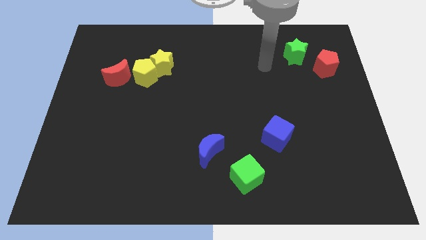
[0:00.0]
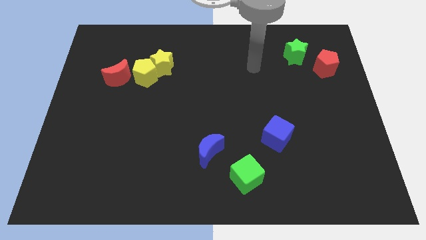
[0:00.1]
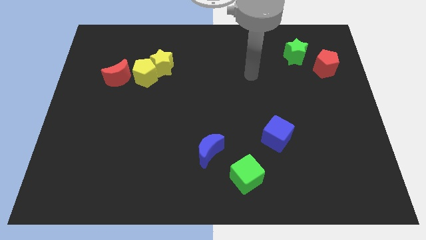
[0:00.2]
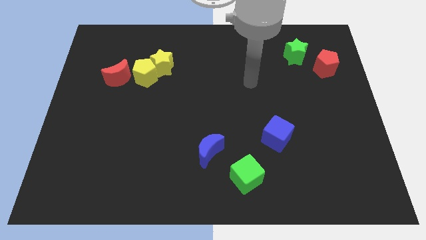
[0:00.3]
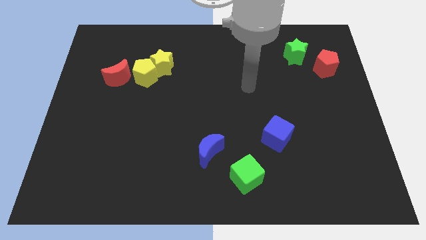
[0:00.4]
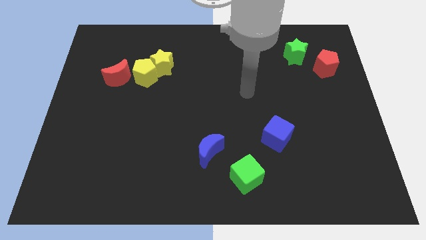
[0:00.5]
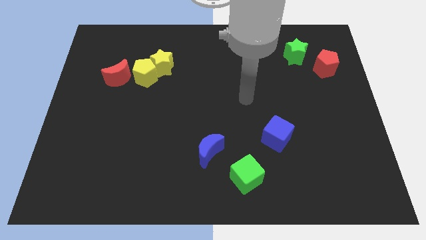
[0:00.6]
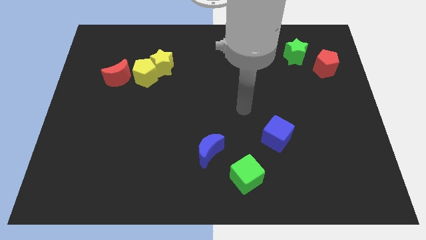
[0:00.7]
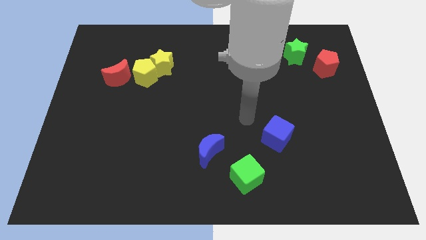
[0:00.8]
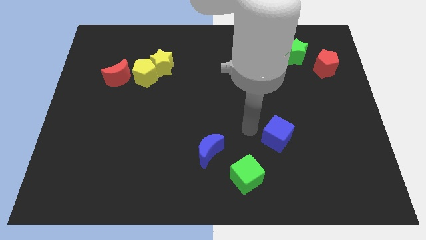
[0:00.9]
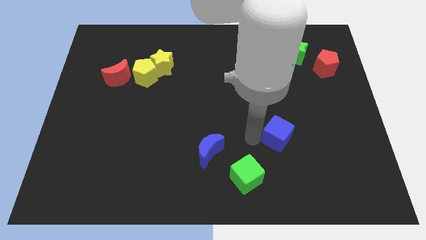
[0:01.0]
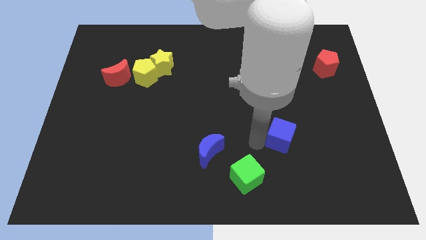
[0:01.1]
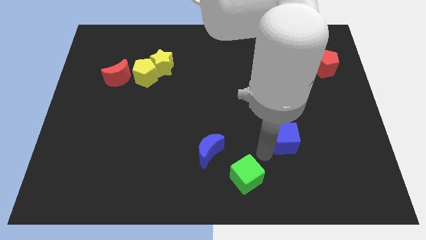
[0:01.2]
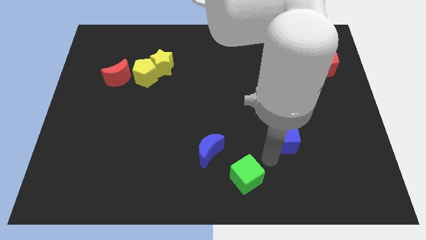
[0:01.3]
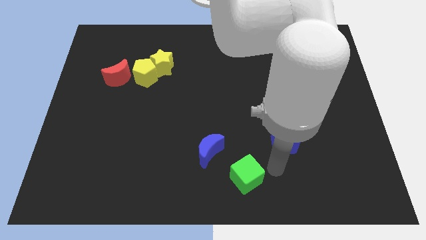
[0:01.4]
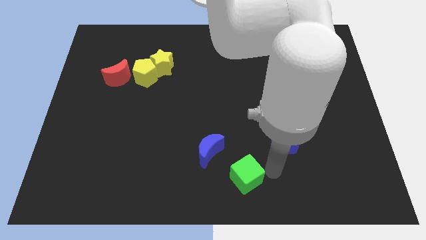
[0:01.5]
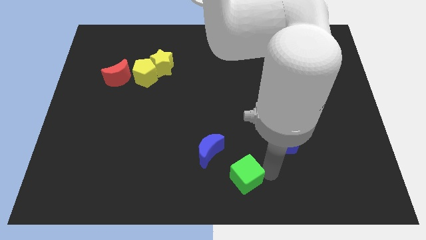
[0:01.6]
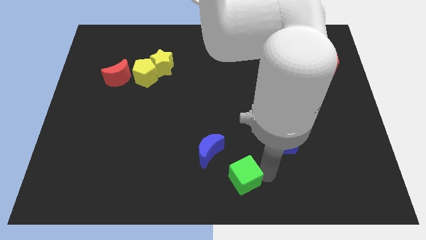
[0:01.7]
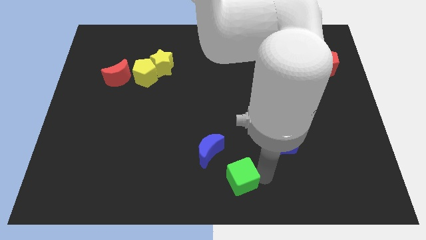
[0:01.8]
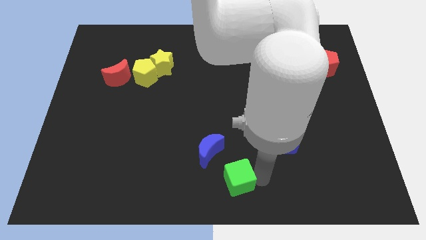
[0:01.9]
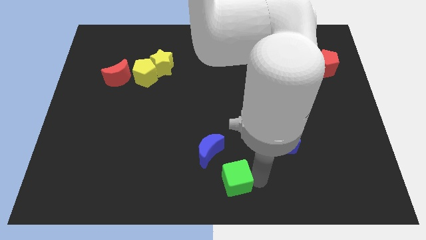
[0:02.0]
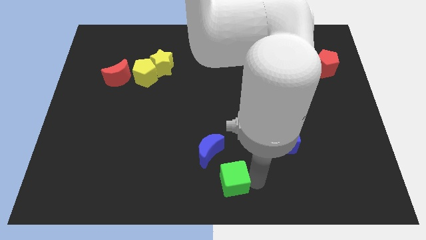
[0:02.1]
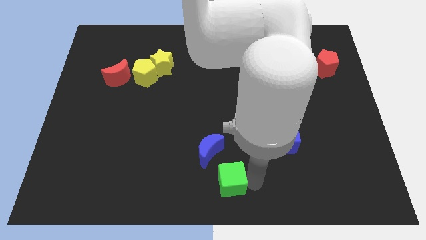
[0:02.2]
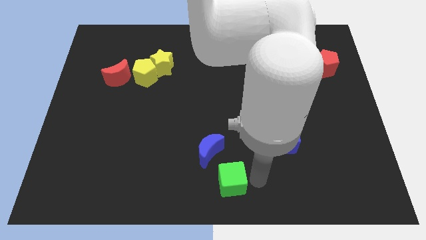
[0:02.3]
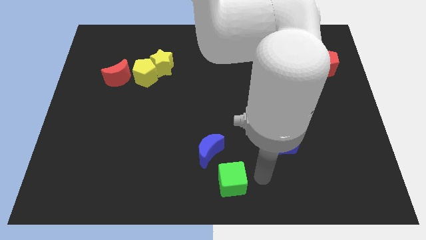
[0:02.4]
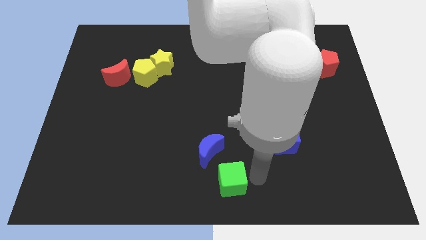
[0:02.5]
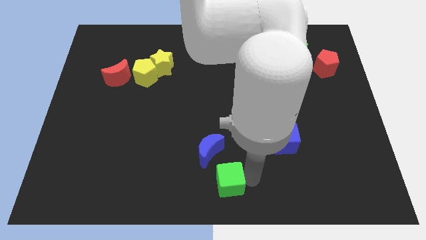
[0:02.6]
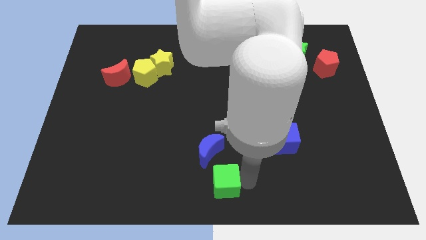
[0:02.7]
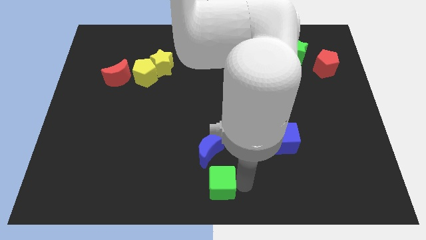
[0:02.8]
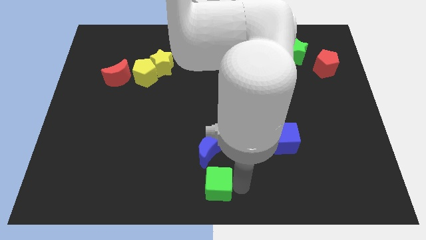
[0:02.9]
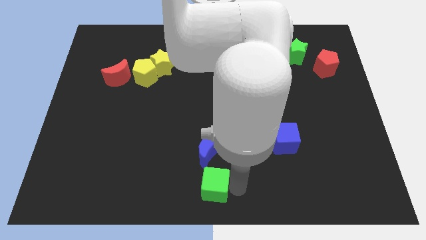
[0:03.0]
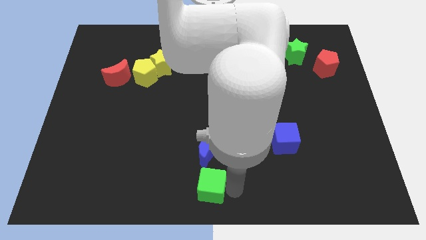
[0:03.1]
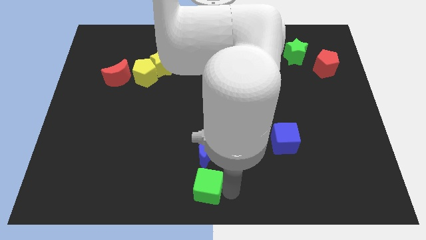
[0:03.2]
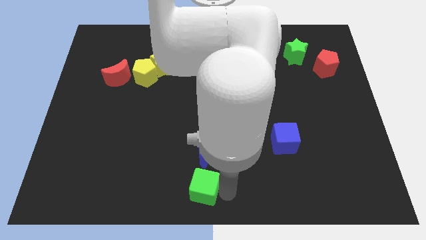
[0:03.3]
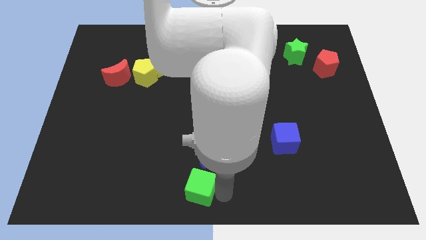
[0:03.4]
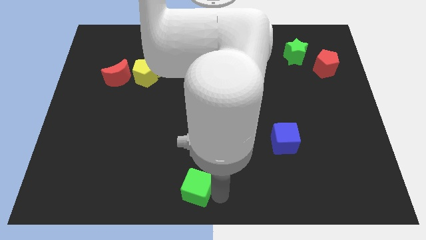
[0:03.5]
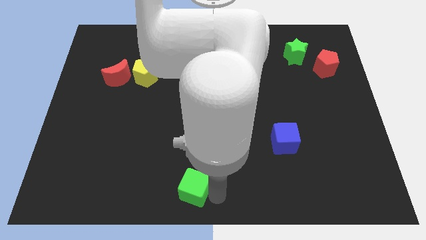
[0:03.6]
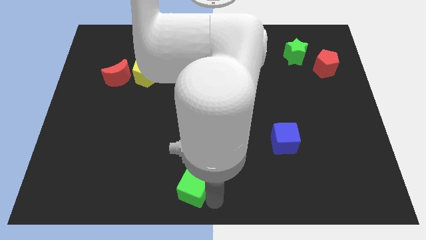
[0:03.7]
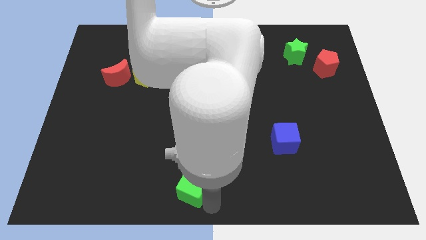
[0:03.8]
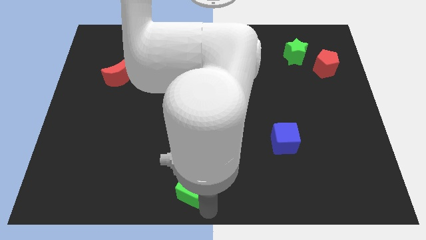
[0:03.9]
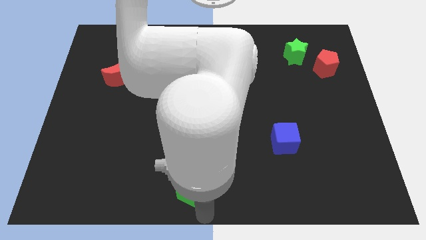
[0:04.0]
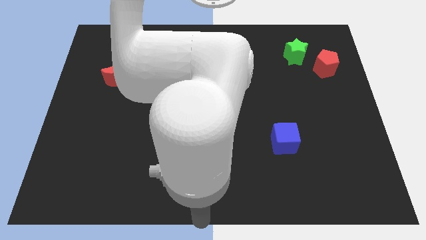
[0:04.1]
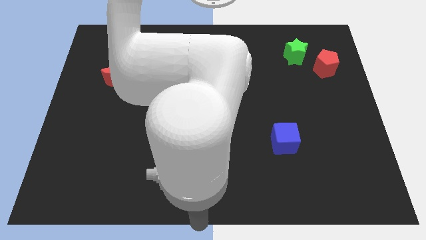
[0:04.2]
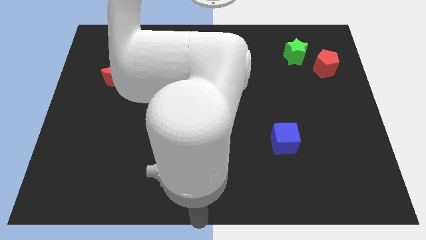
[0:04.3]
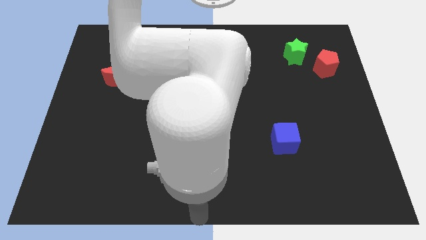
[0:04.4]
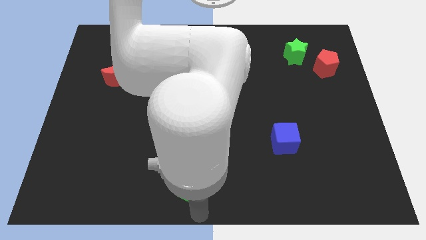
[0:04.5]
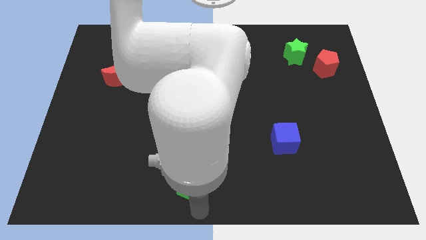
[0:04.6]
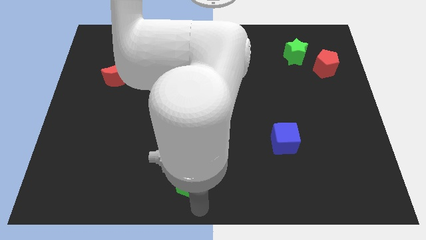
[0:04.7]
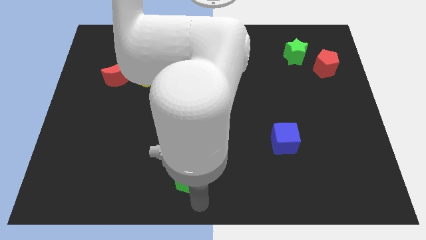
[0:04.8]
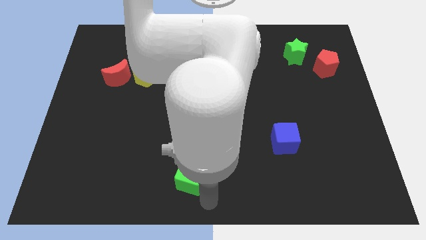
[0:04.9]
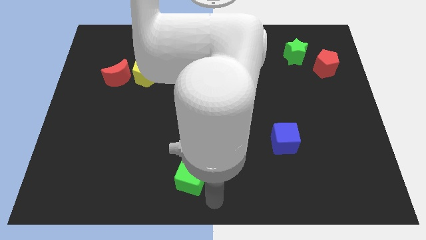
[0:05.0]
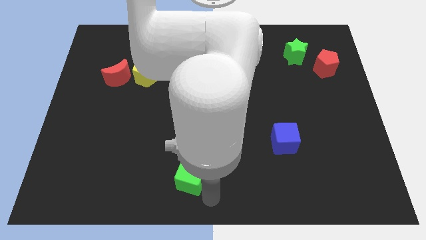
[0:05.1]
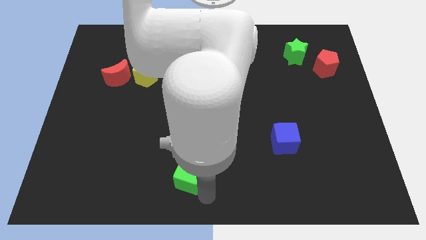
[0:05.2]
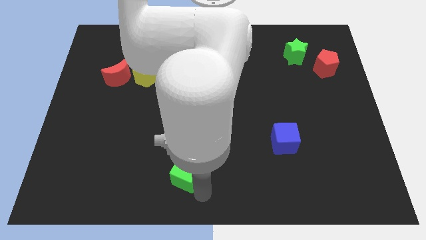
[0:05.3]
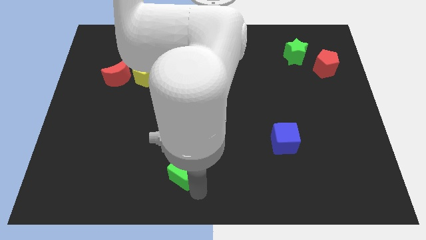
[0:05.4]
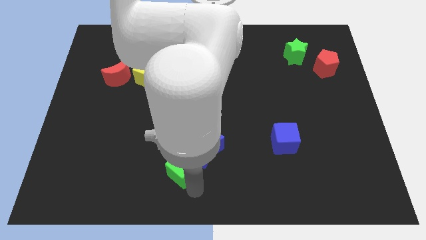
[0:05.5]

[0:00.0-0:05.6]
put the green cube to the left side of the blue moon
